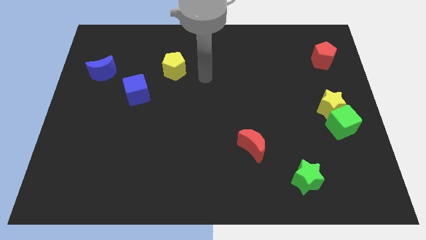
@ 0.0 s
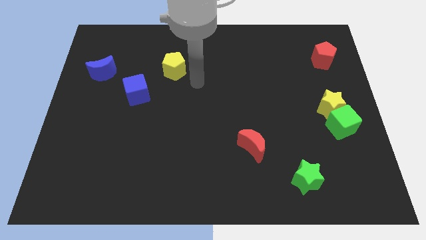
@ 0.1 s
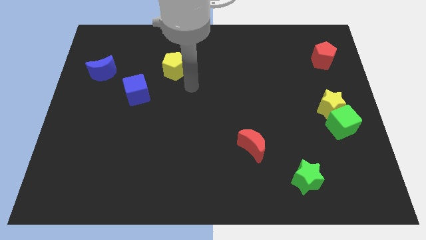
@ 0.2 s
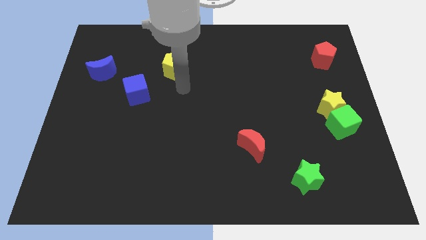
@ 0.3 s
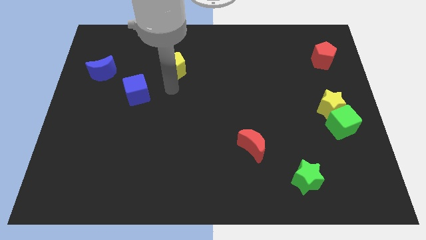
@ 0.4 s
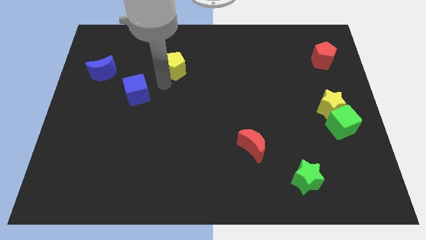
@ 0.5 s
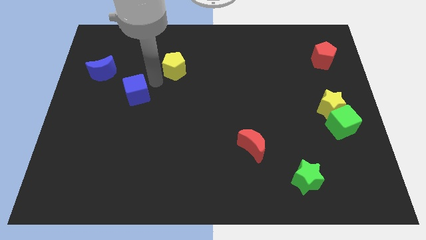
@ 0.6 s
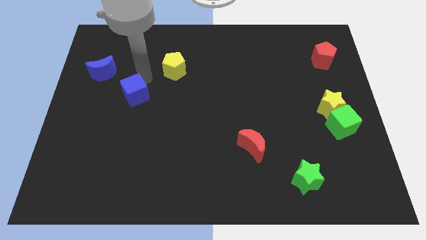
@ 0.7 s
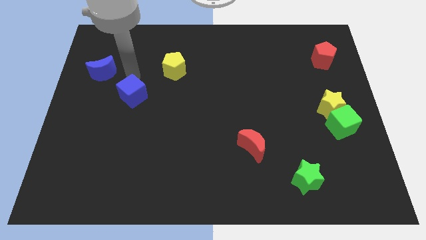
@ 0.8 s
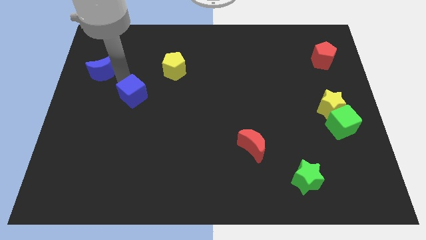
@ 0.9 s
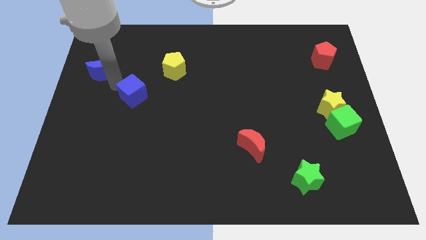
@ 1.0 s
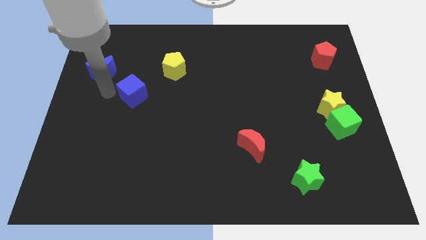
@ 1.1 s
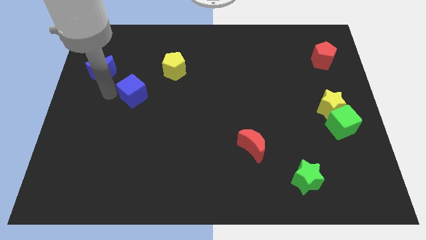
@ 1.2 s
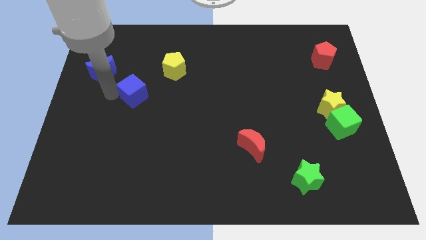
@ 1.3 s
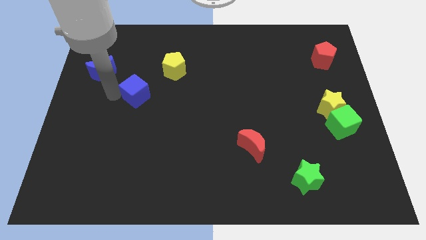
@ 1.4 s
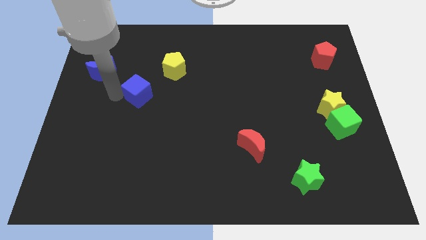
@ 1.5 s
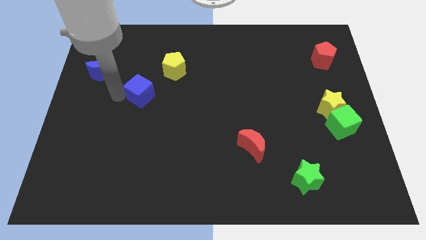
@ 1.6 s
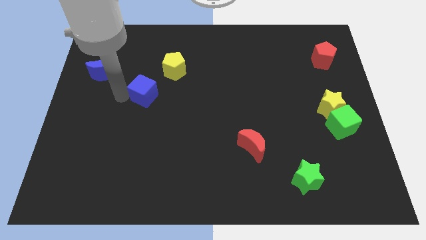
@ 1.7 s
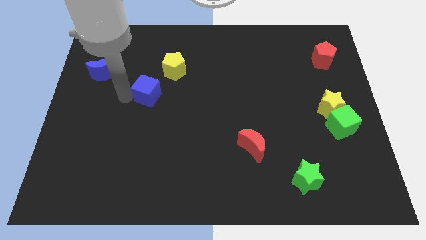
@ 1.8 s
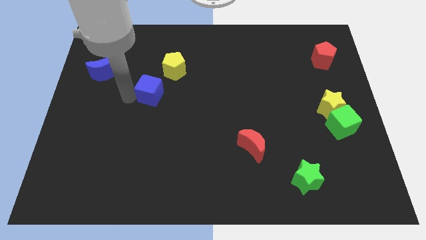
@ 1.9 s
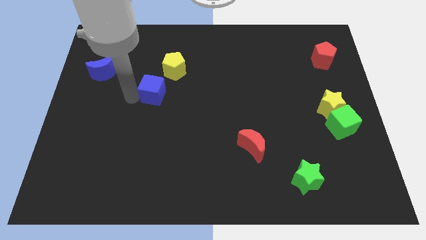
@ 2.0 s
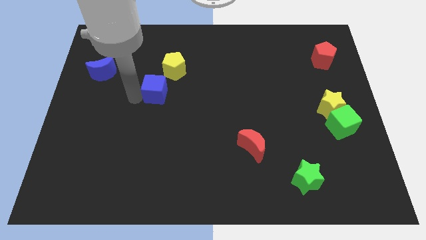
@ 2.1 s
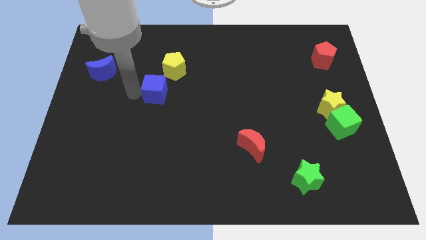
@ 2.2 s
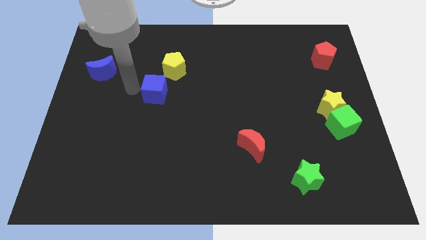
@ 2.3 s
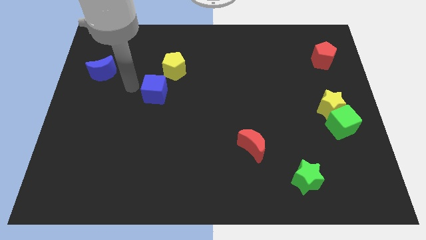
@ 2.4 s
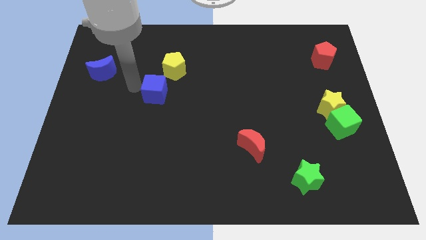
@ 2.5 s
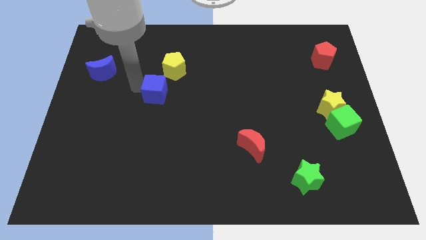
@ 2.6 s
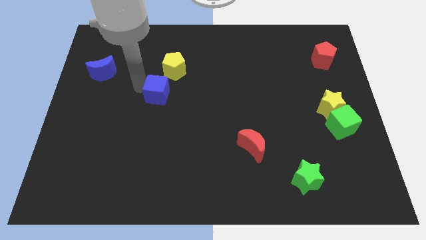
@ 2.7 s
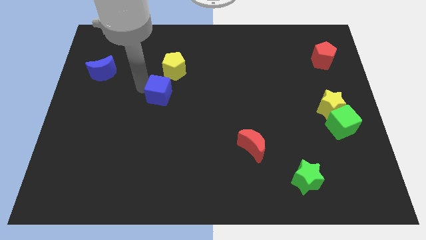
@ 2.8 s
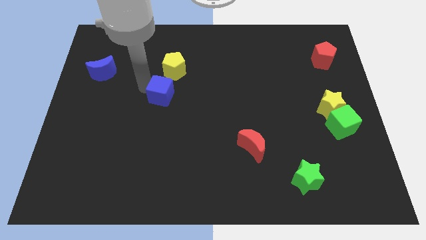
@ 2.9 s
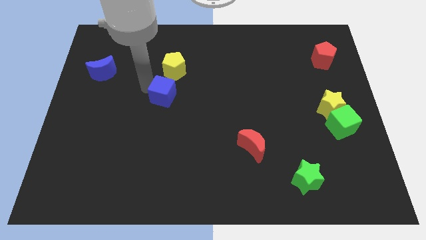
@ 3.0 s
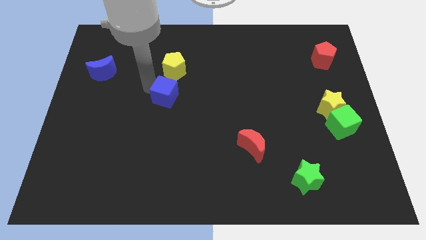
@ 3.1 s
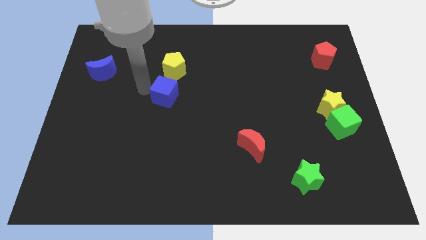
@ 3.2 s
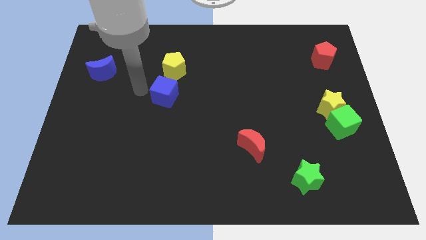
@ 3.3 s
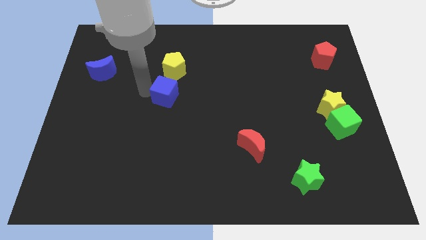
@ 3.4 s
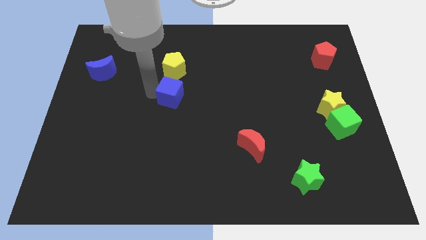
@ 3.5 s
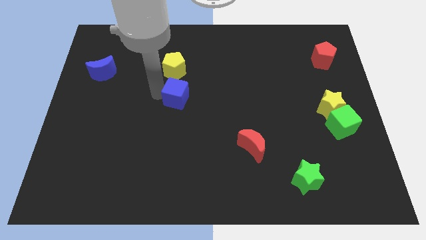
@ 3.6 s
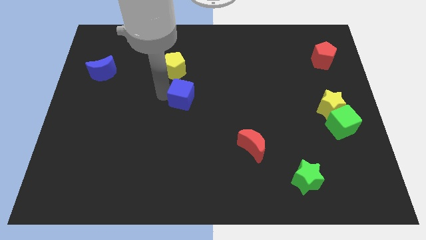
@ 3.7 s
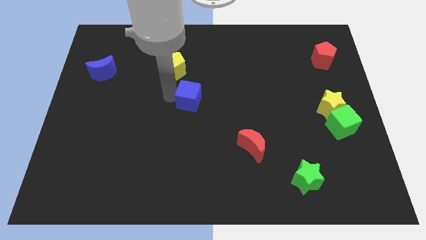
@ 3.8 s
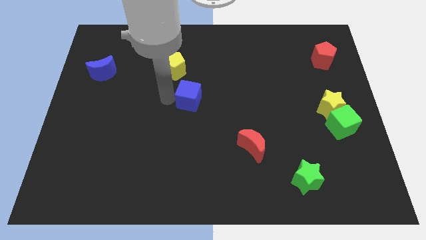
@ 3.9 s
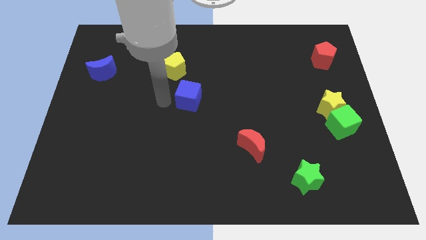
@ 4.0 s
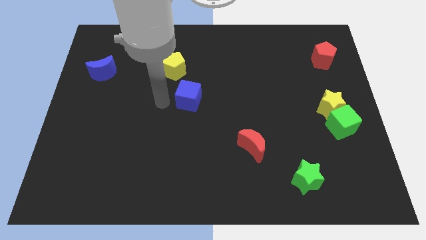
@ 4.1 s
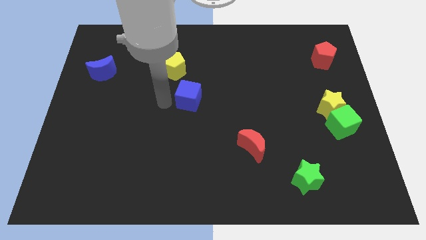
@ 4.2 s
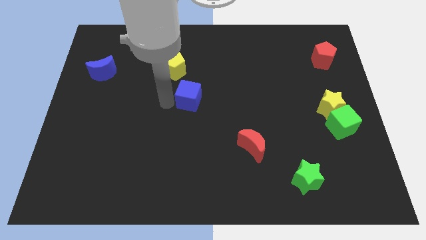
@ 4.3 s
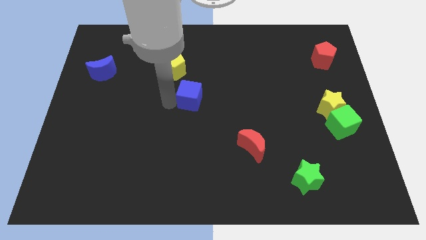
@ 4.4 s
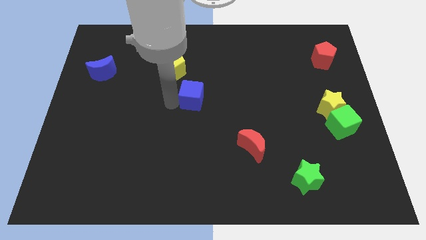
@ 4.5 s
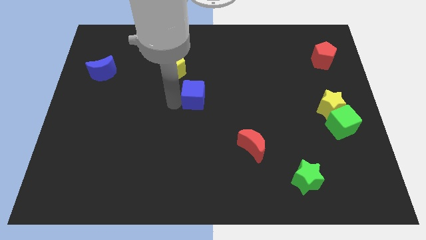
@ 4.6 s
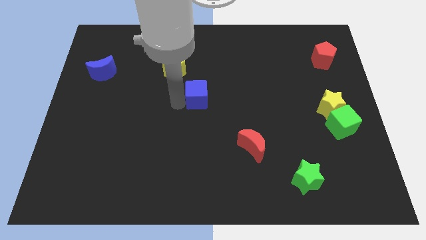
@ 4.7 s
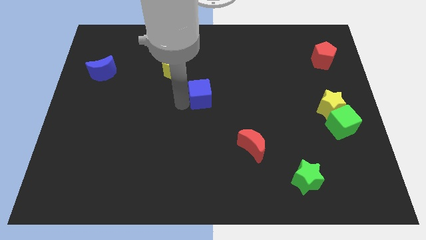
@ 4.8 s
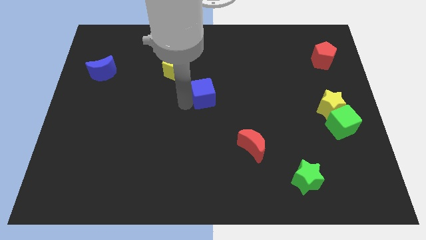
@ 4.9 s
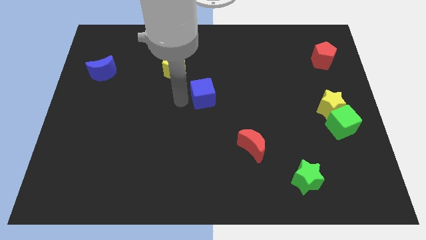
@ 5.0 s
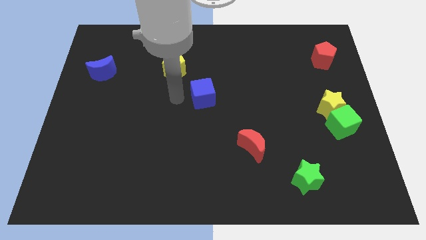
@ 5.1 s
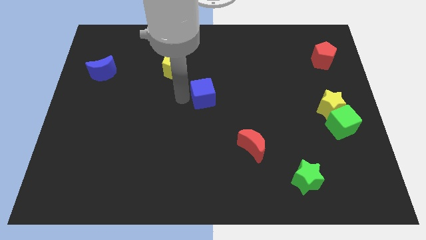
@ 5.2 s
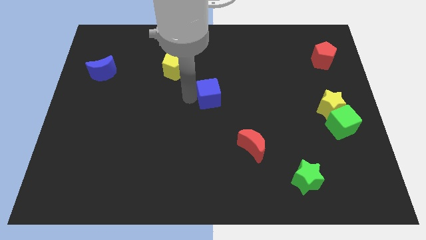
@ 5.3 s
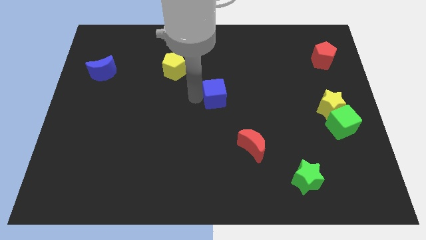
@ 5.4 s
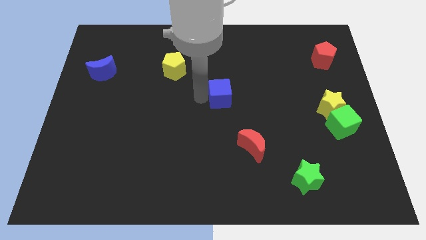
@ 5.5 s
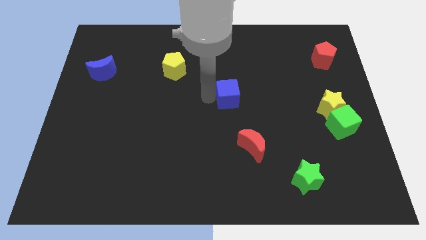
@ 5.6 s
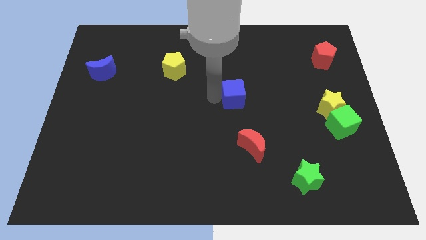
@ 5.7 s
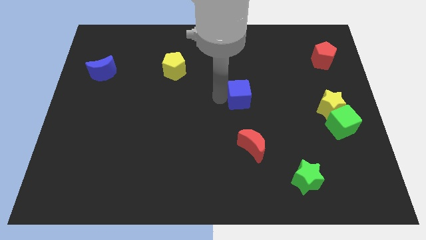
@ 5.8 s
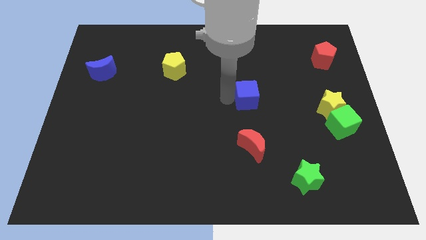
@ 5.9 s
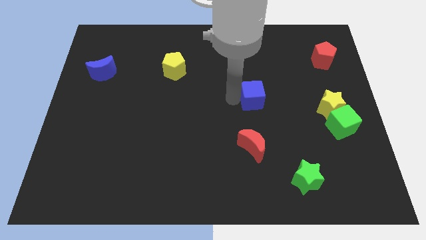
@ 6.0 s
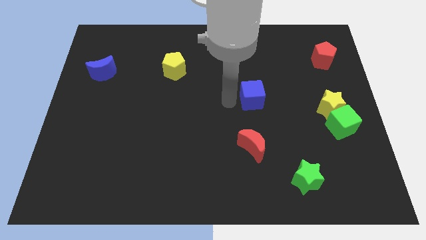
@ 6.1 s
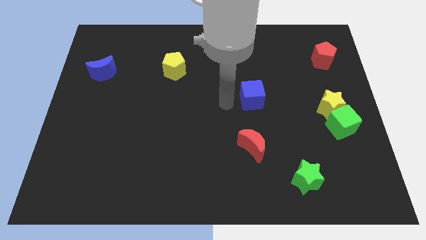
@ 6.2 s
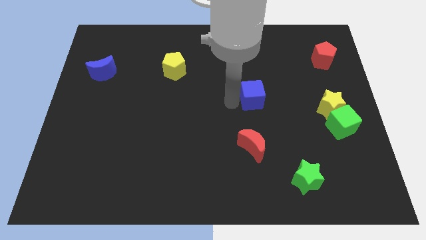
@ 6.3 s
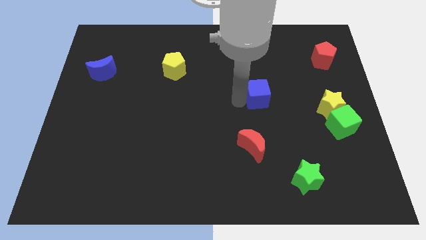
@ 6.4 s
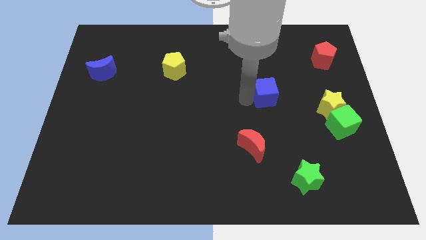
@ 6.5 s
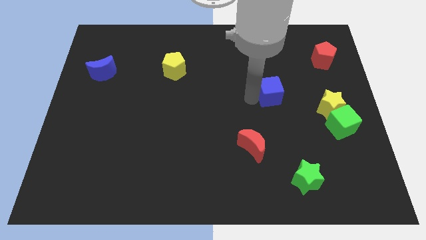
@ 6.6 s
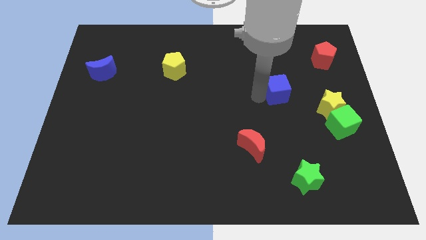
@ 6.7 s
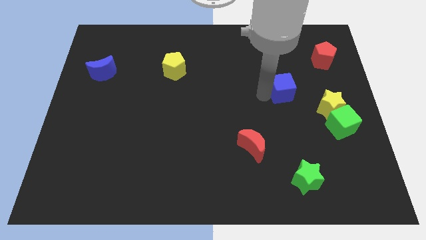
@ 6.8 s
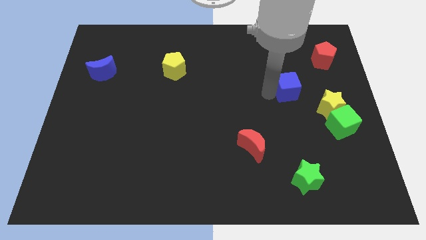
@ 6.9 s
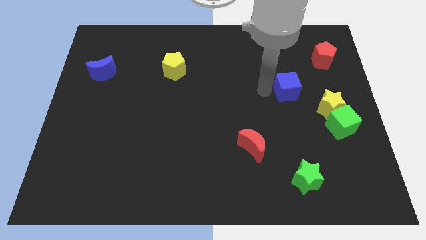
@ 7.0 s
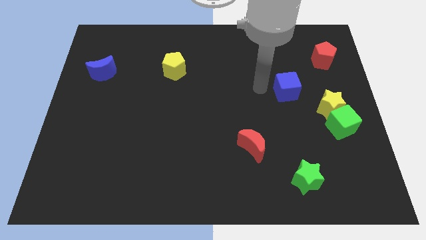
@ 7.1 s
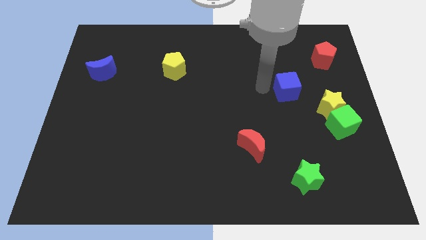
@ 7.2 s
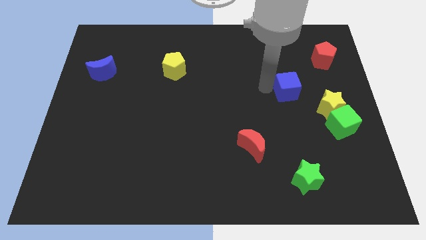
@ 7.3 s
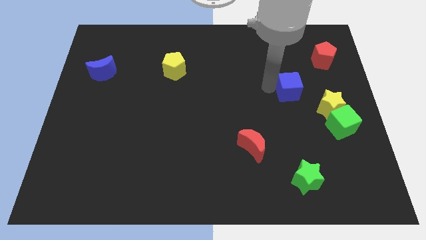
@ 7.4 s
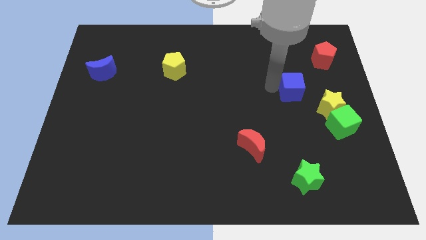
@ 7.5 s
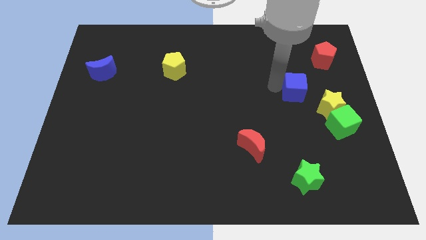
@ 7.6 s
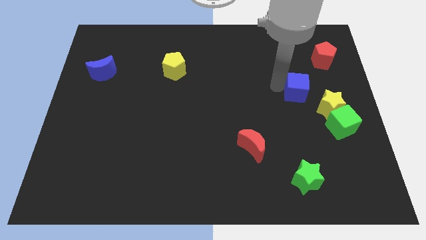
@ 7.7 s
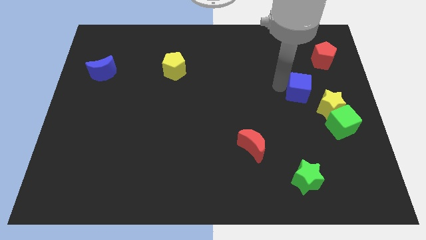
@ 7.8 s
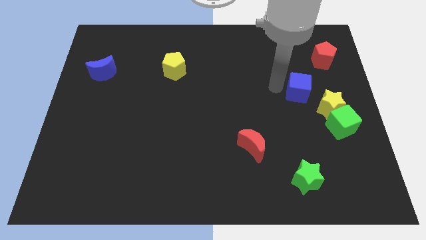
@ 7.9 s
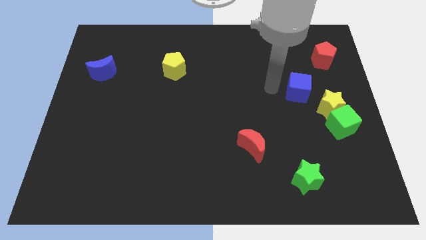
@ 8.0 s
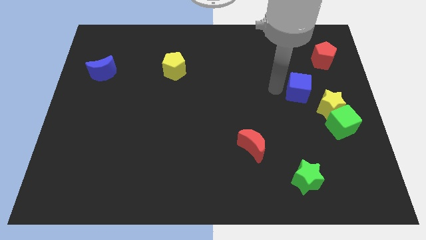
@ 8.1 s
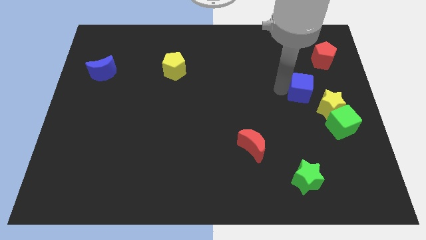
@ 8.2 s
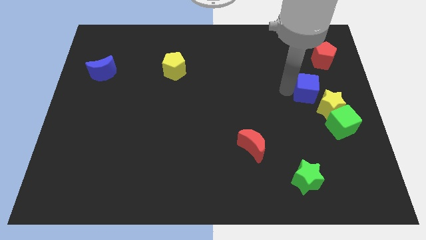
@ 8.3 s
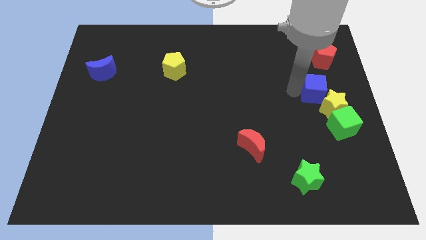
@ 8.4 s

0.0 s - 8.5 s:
push the blue cube to the top side of the green cube
